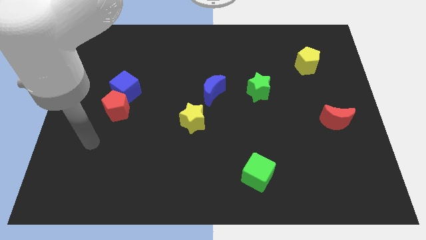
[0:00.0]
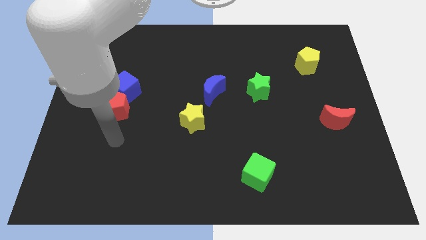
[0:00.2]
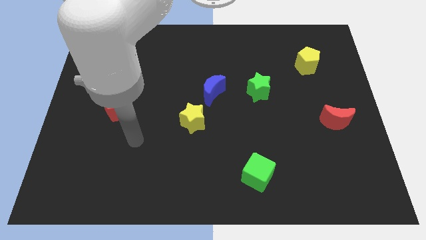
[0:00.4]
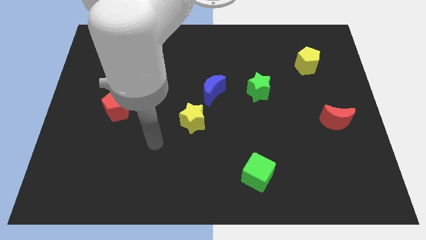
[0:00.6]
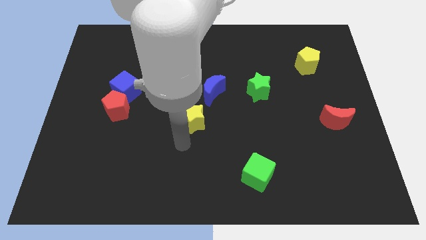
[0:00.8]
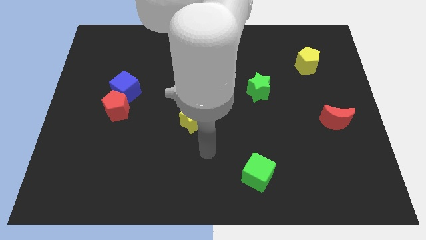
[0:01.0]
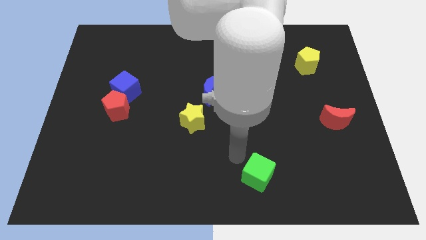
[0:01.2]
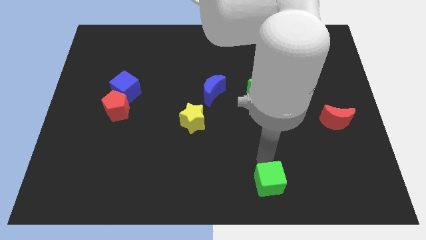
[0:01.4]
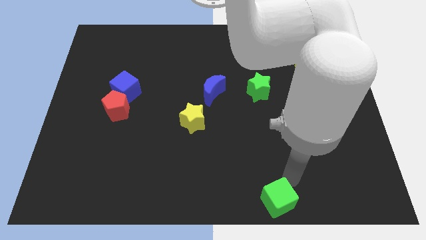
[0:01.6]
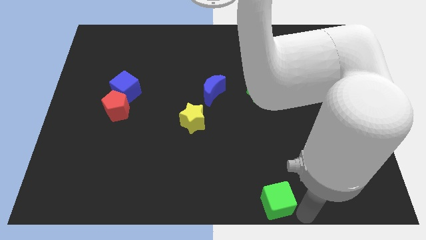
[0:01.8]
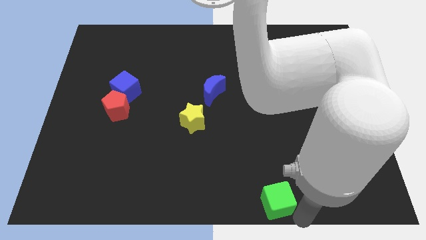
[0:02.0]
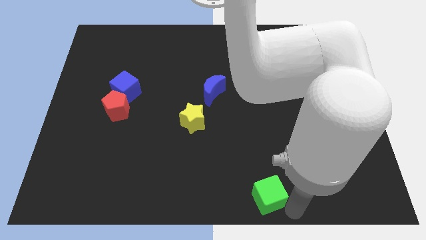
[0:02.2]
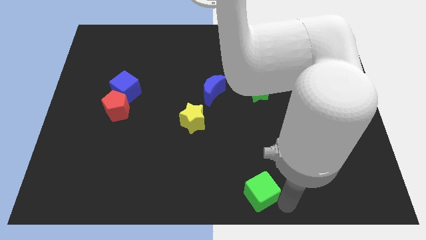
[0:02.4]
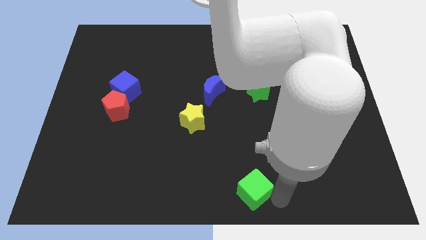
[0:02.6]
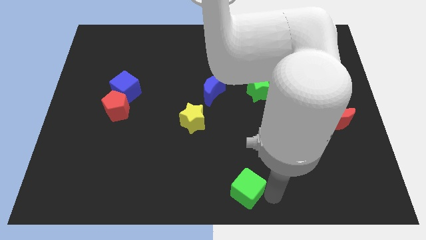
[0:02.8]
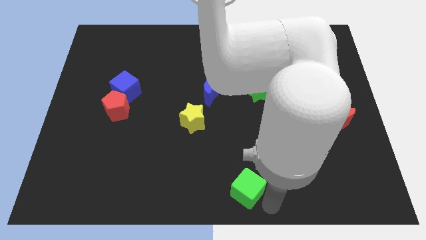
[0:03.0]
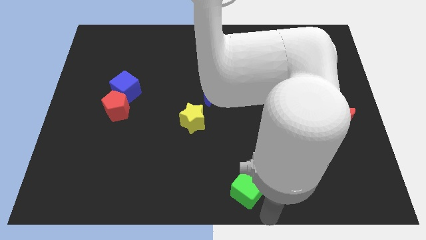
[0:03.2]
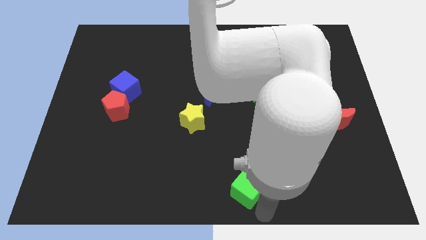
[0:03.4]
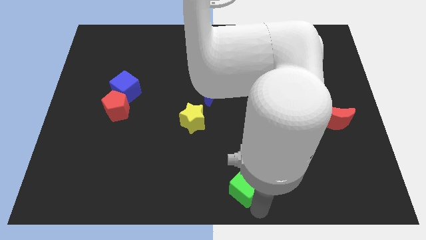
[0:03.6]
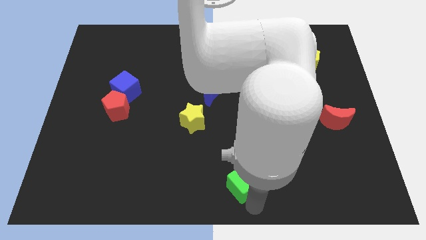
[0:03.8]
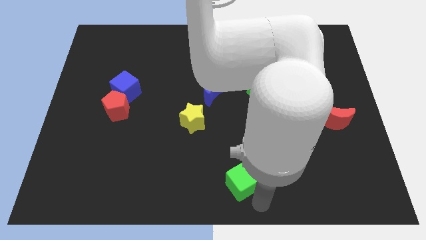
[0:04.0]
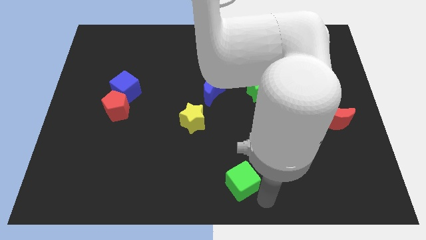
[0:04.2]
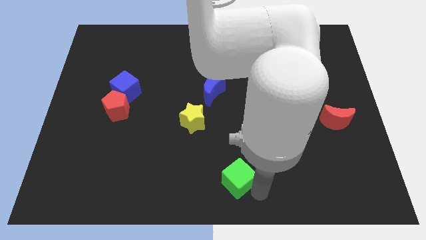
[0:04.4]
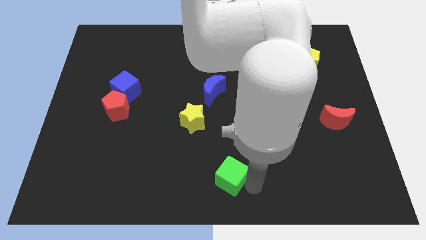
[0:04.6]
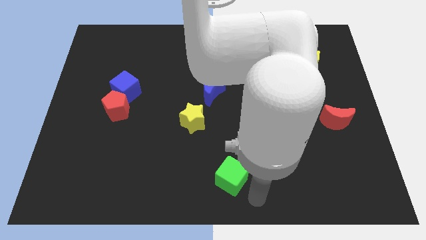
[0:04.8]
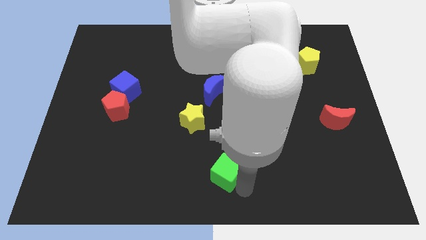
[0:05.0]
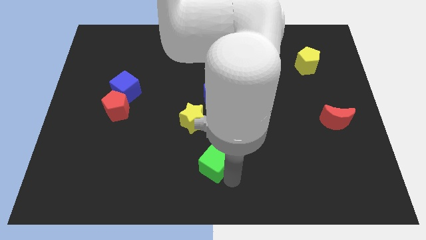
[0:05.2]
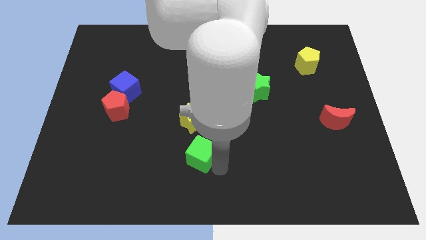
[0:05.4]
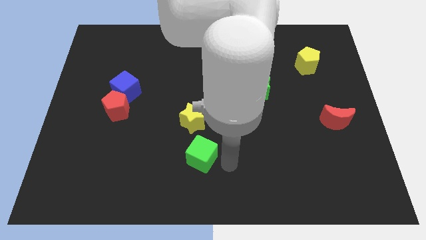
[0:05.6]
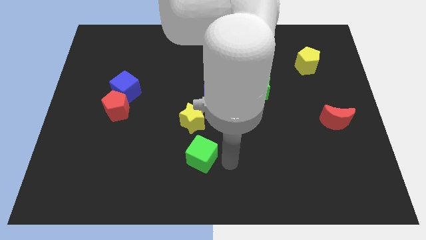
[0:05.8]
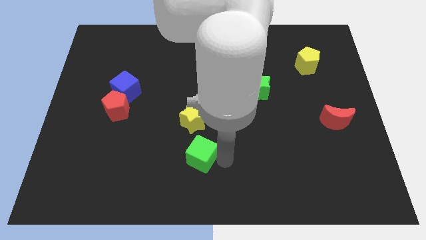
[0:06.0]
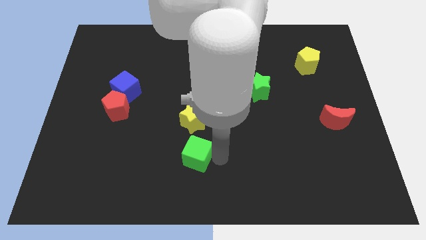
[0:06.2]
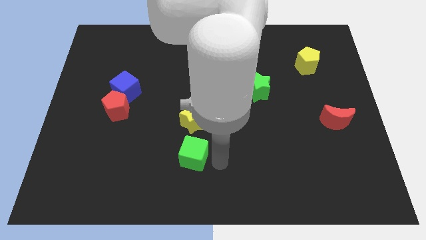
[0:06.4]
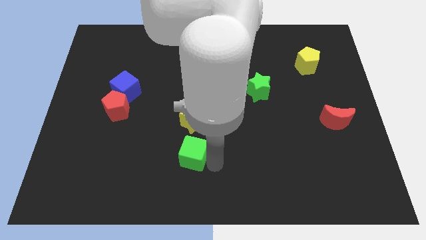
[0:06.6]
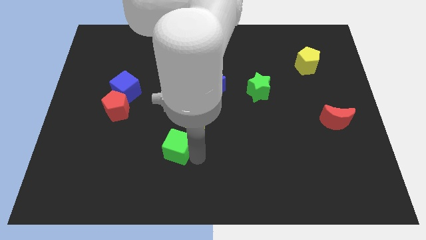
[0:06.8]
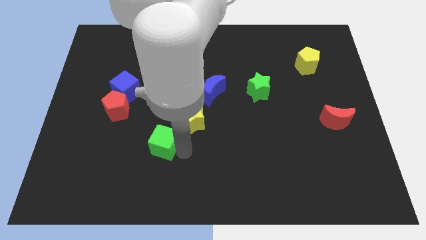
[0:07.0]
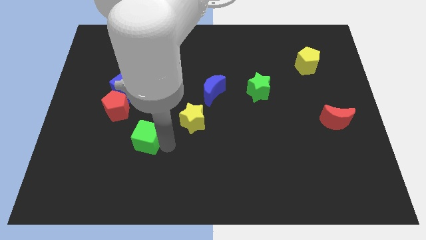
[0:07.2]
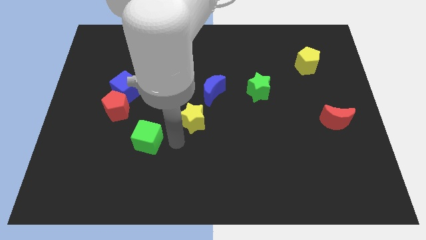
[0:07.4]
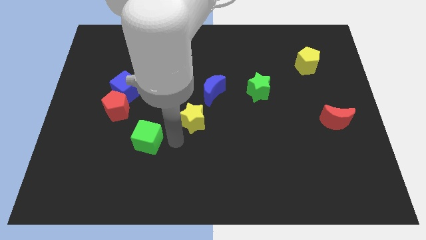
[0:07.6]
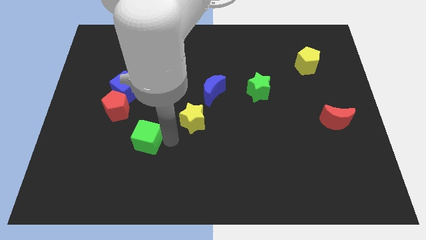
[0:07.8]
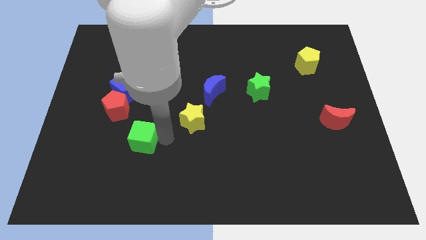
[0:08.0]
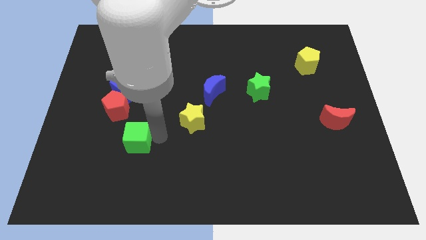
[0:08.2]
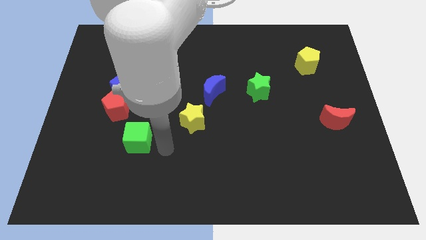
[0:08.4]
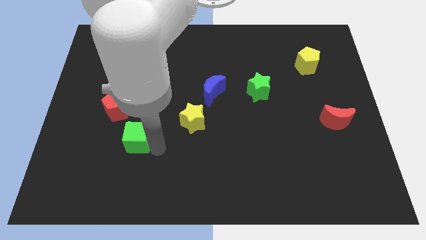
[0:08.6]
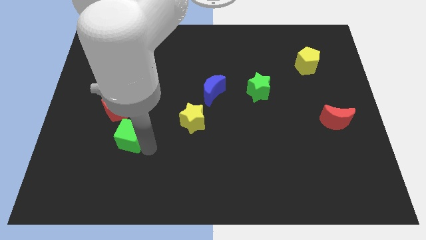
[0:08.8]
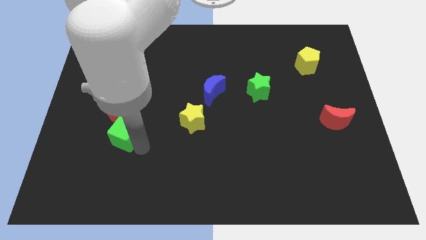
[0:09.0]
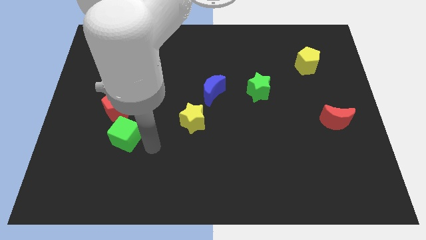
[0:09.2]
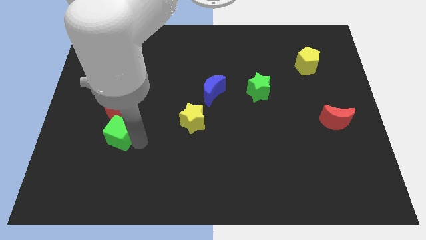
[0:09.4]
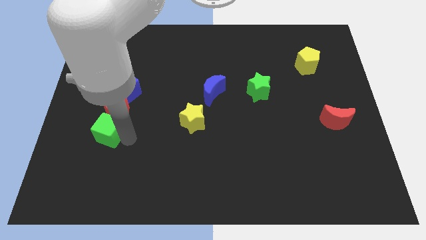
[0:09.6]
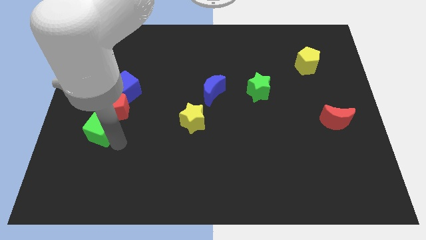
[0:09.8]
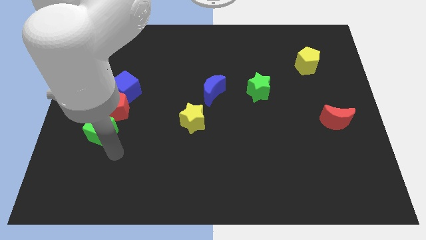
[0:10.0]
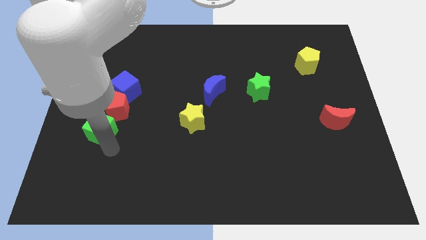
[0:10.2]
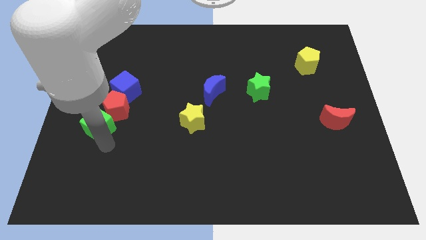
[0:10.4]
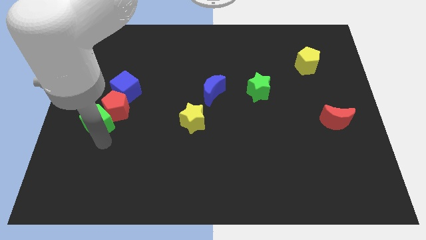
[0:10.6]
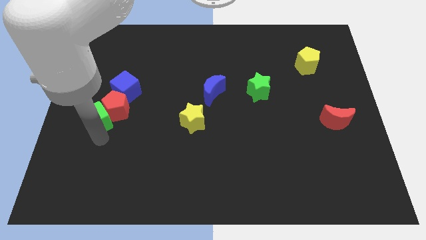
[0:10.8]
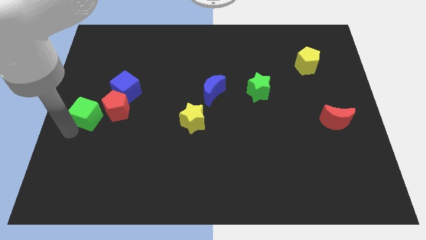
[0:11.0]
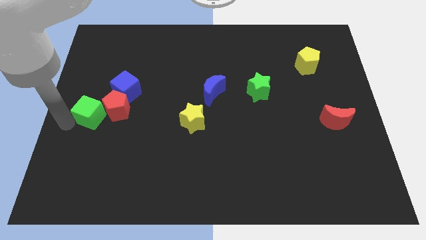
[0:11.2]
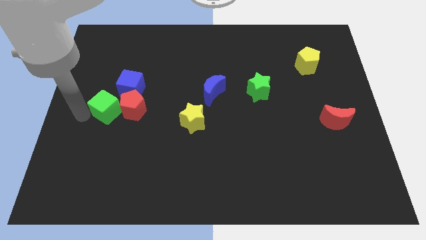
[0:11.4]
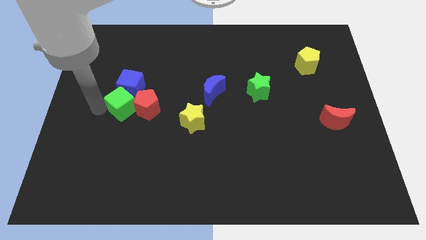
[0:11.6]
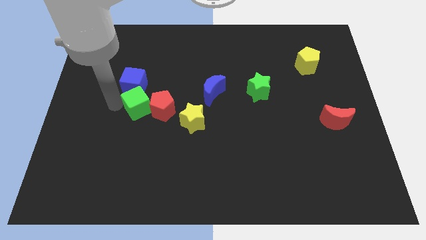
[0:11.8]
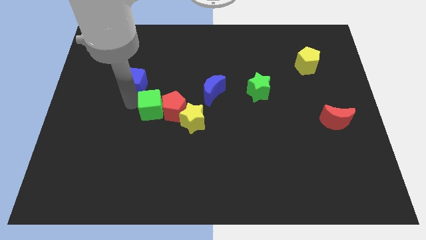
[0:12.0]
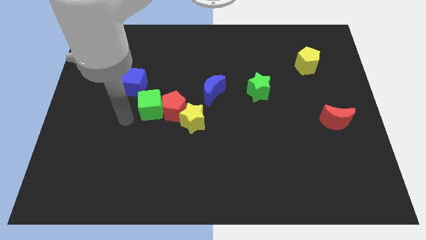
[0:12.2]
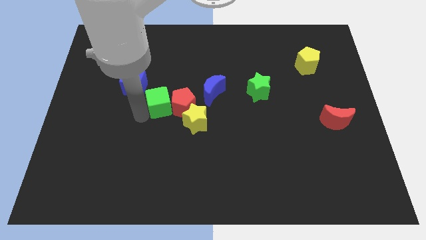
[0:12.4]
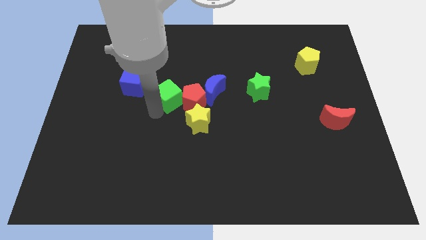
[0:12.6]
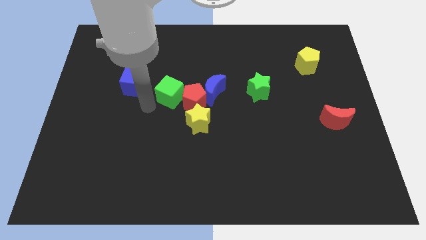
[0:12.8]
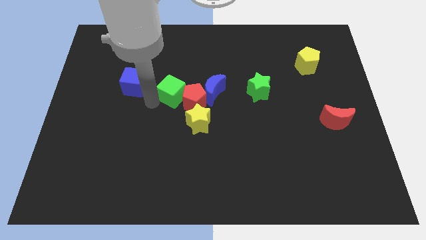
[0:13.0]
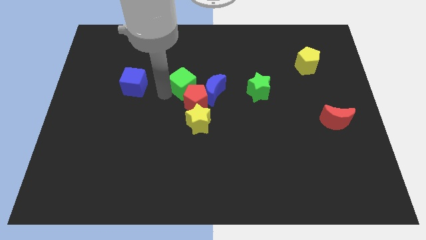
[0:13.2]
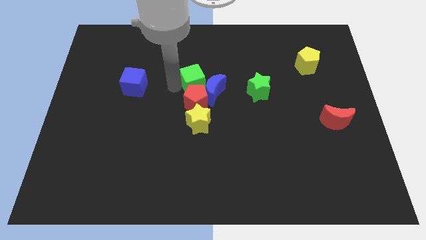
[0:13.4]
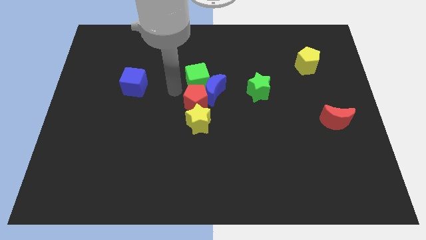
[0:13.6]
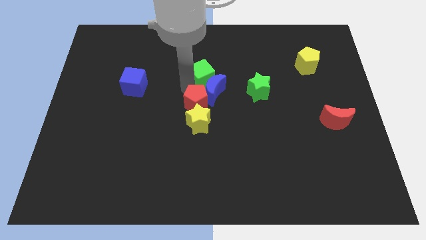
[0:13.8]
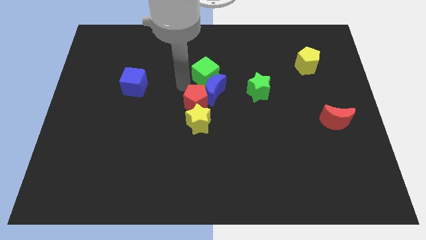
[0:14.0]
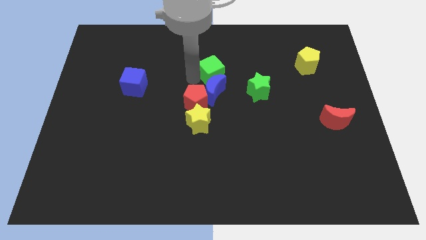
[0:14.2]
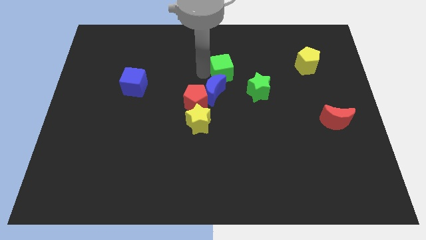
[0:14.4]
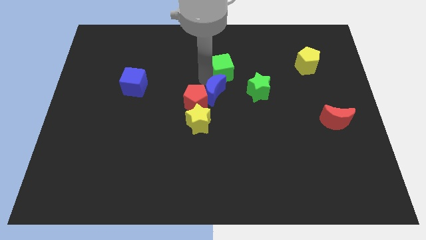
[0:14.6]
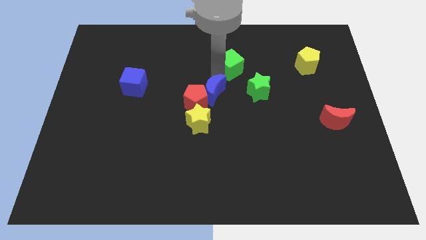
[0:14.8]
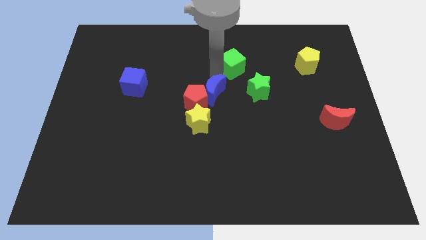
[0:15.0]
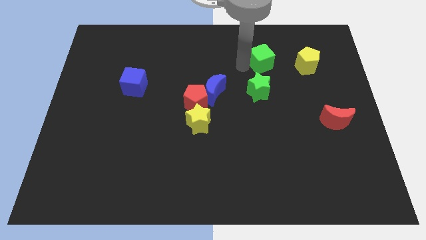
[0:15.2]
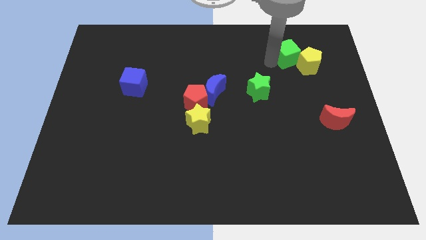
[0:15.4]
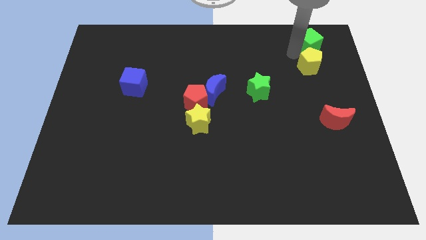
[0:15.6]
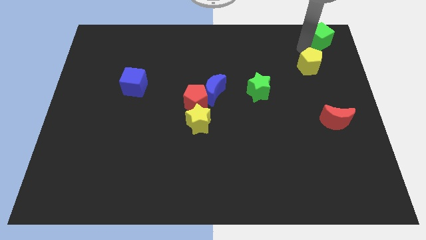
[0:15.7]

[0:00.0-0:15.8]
put the green cube to the upper right corner
